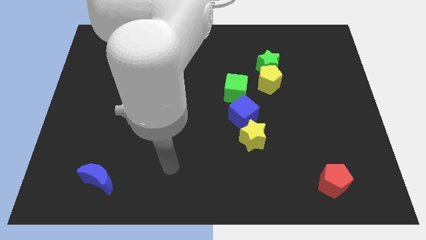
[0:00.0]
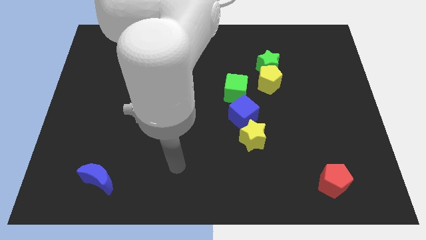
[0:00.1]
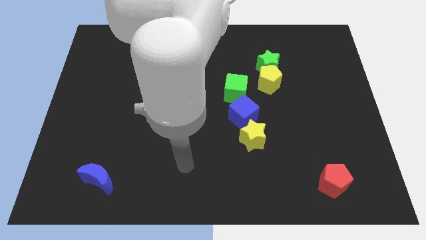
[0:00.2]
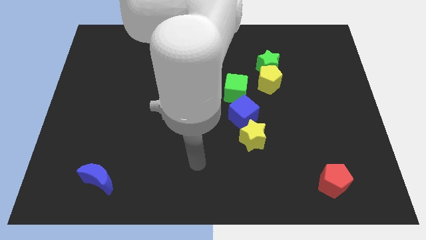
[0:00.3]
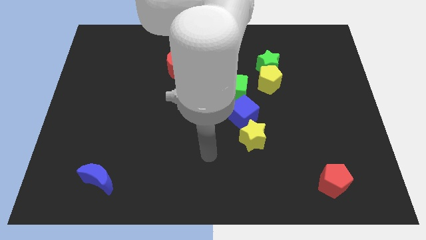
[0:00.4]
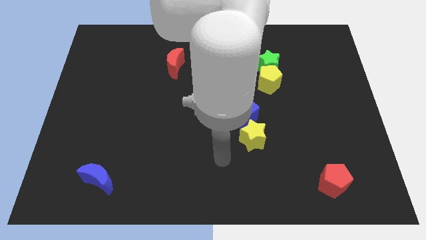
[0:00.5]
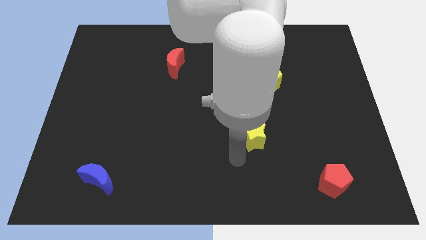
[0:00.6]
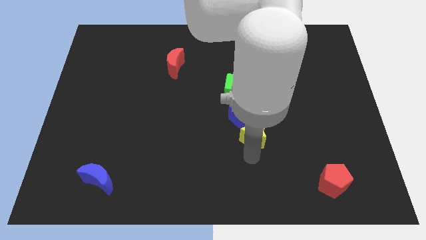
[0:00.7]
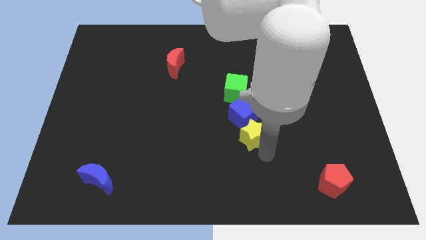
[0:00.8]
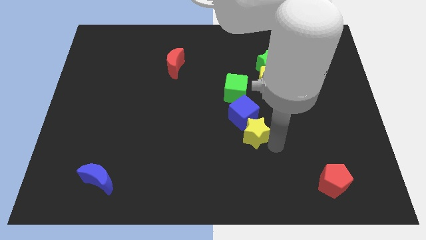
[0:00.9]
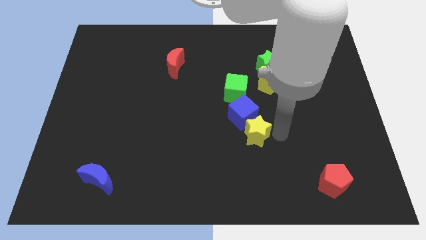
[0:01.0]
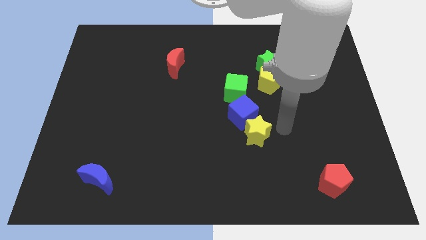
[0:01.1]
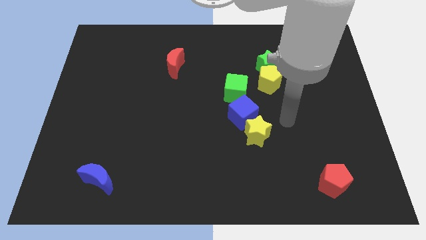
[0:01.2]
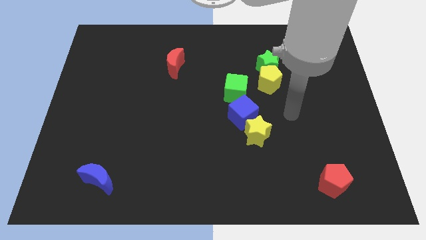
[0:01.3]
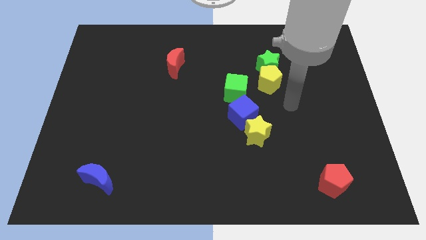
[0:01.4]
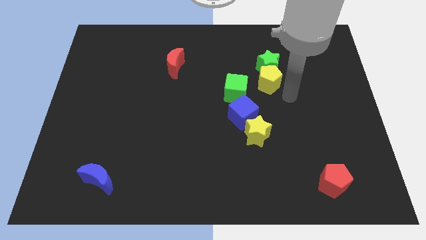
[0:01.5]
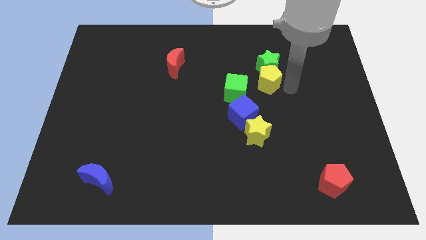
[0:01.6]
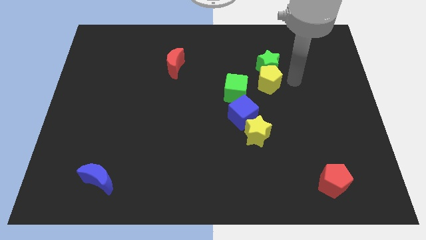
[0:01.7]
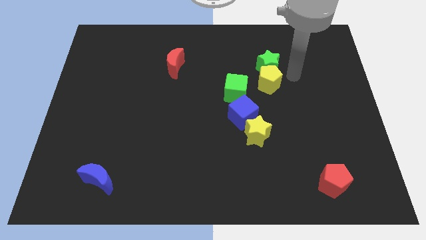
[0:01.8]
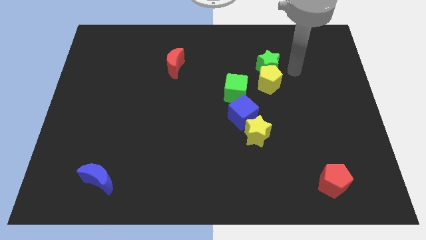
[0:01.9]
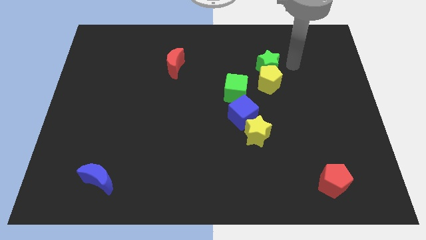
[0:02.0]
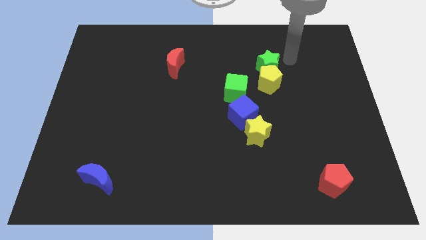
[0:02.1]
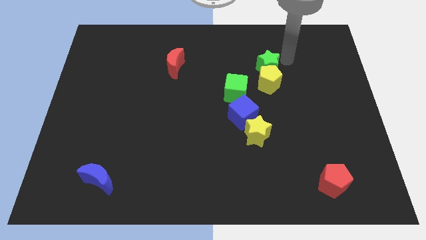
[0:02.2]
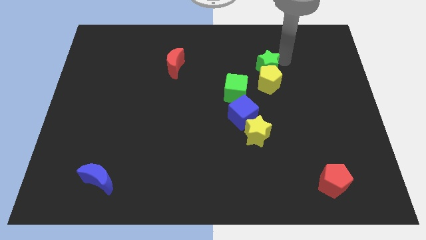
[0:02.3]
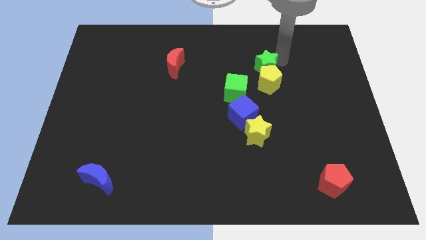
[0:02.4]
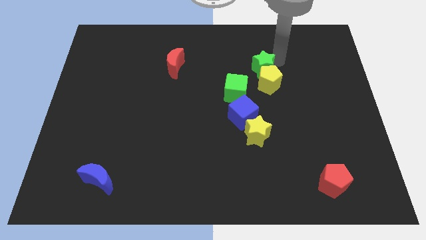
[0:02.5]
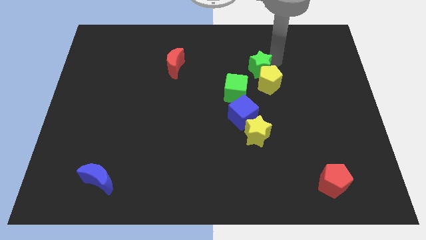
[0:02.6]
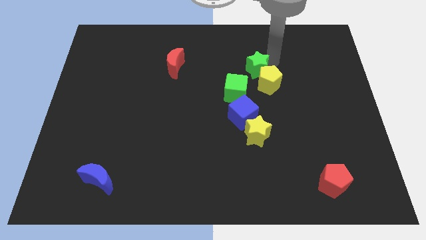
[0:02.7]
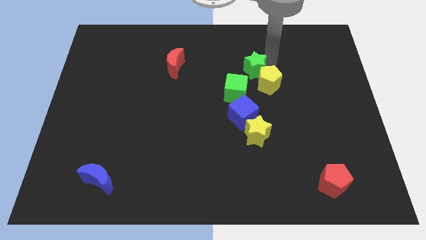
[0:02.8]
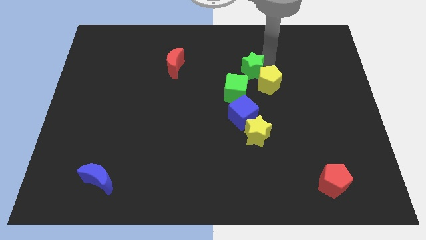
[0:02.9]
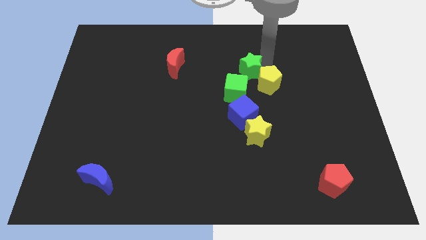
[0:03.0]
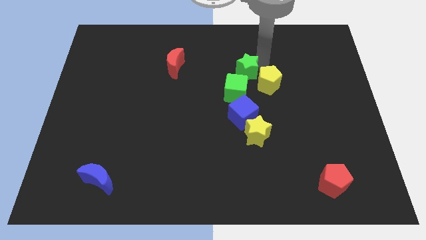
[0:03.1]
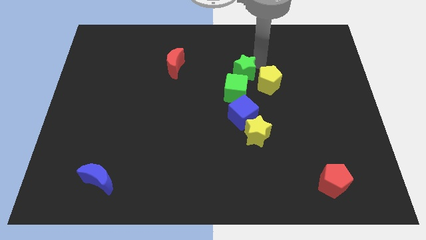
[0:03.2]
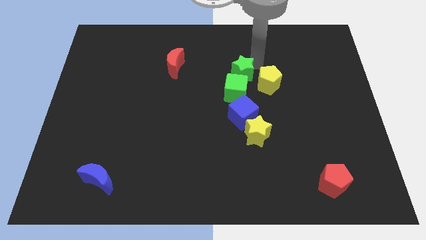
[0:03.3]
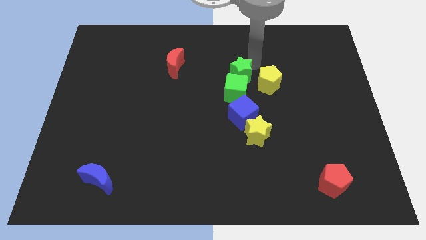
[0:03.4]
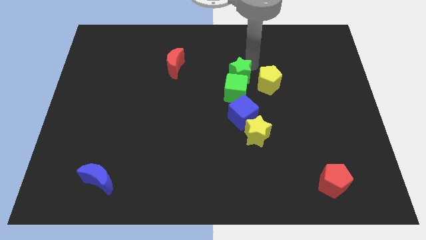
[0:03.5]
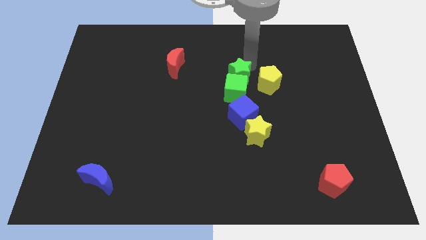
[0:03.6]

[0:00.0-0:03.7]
slide the green star diagonally downwards and left a little bit

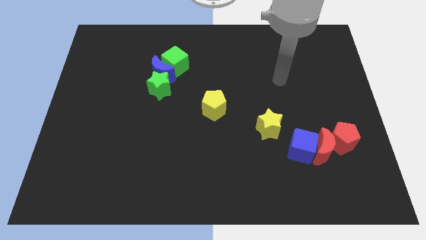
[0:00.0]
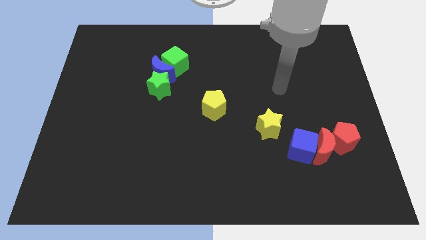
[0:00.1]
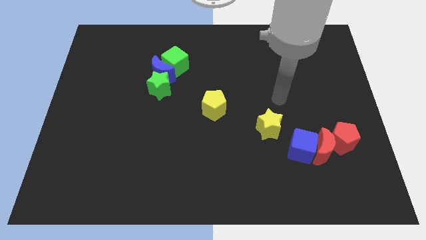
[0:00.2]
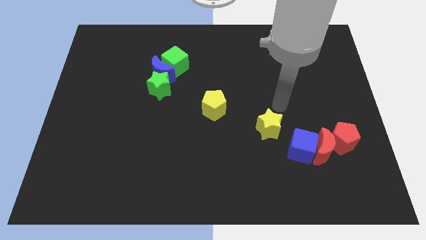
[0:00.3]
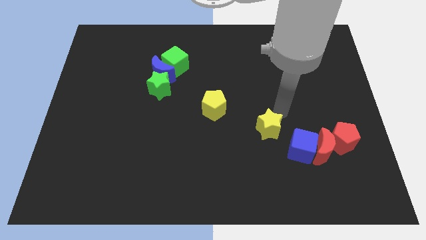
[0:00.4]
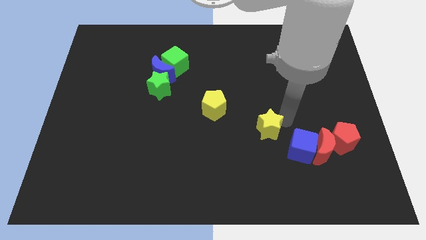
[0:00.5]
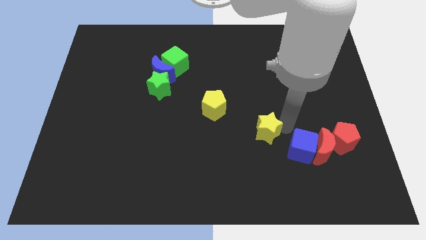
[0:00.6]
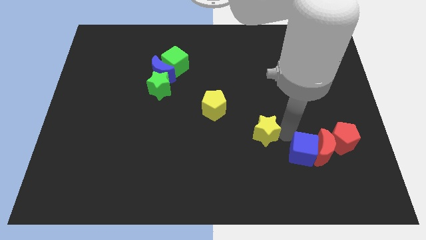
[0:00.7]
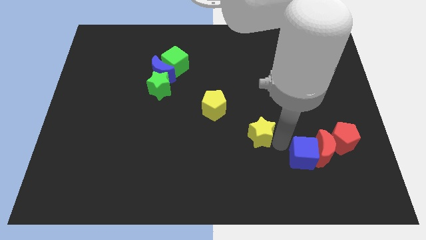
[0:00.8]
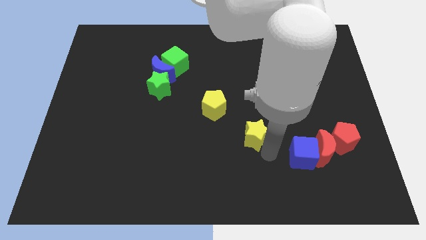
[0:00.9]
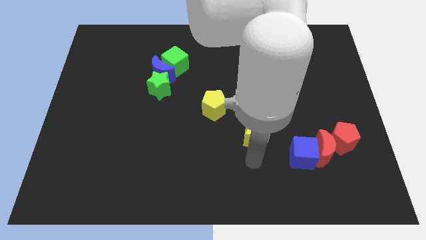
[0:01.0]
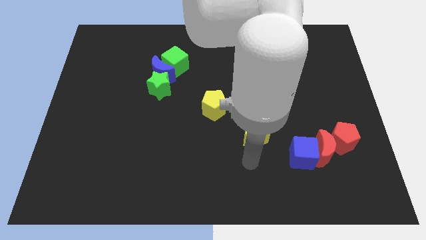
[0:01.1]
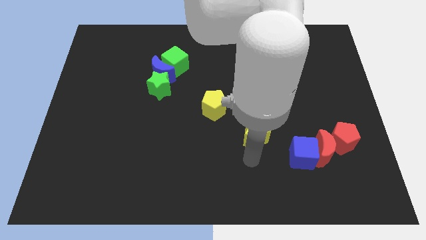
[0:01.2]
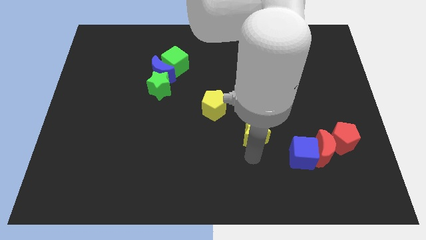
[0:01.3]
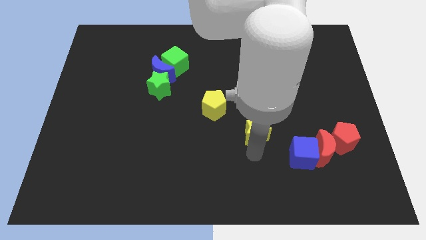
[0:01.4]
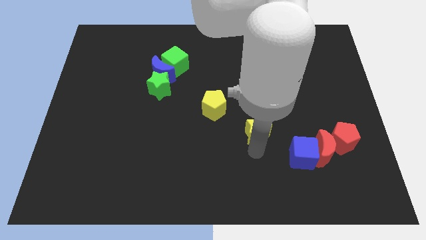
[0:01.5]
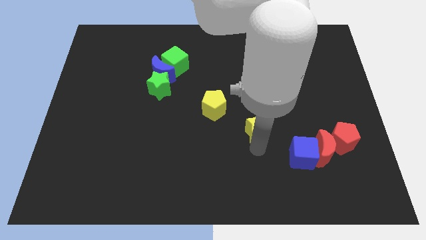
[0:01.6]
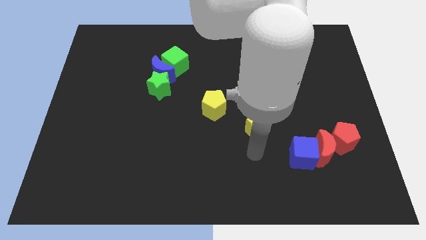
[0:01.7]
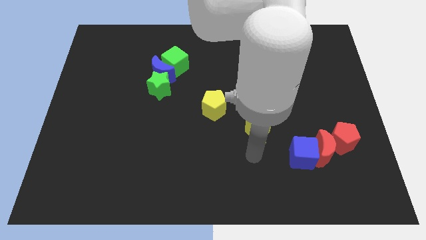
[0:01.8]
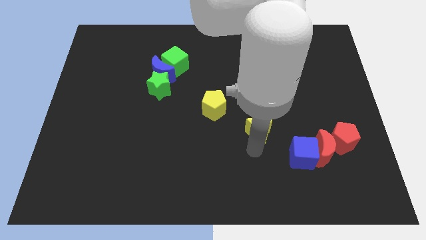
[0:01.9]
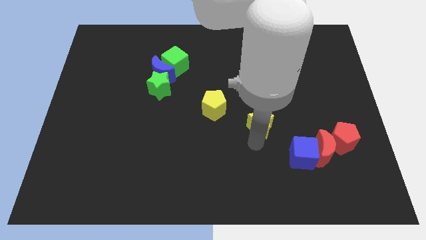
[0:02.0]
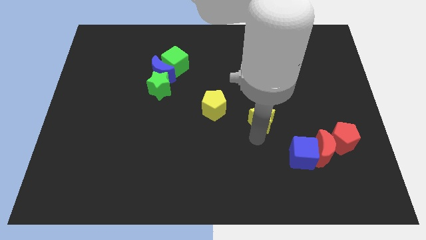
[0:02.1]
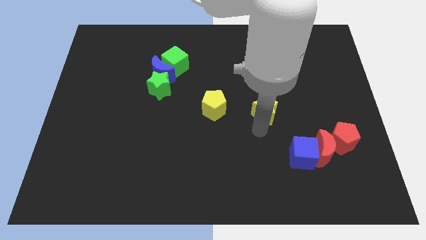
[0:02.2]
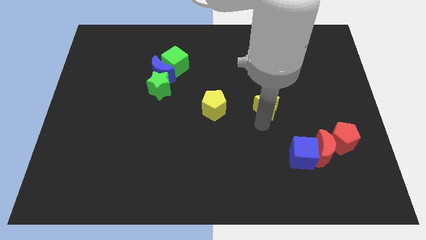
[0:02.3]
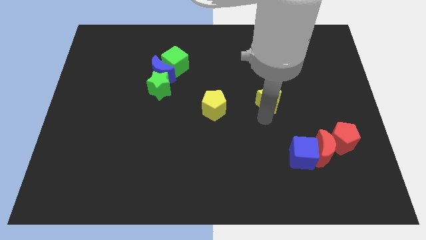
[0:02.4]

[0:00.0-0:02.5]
push the yellow star up slightly

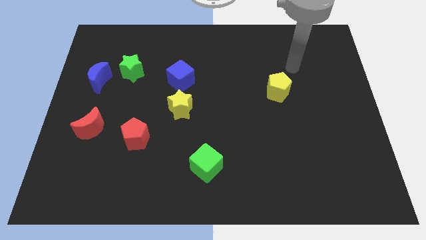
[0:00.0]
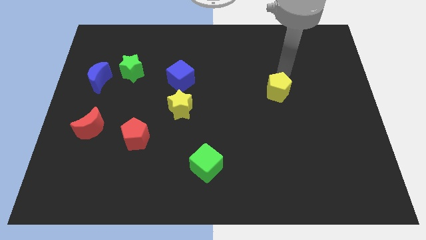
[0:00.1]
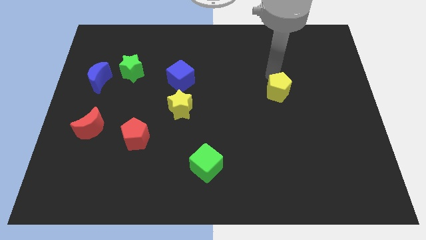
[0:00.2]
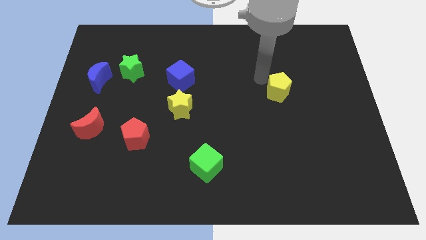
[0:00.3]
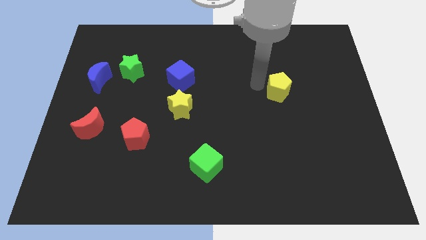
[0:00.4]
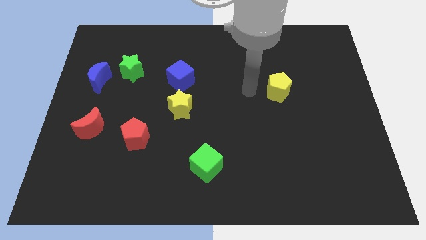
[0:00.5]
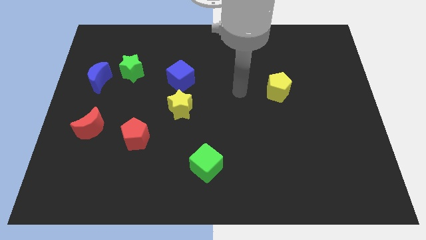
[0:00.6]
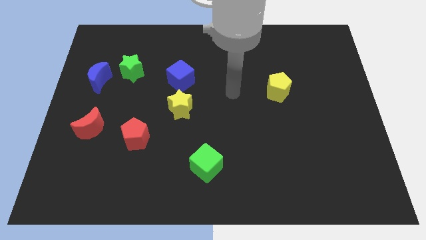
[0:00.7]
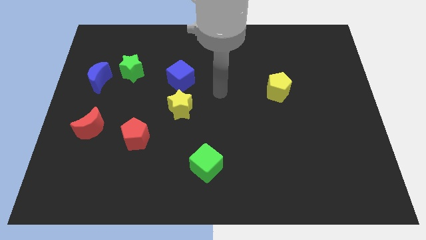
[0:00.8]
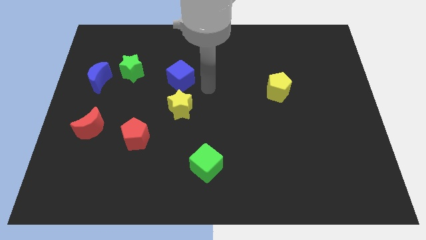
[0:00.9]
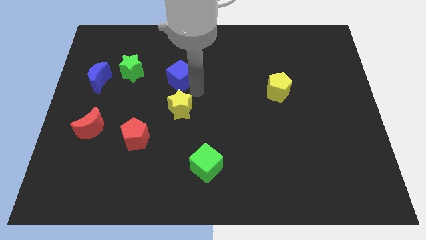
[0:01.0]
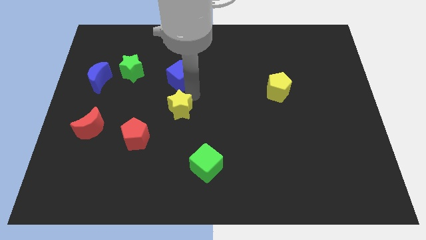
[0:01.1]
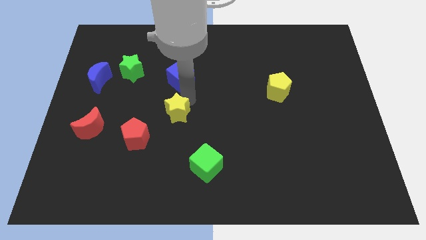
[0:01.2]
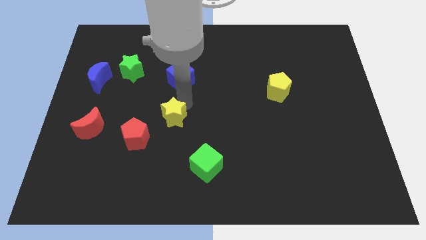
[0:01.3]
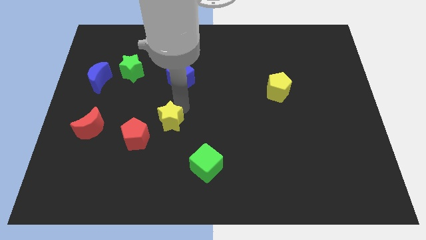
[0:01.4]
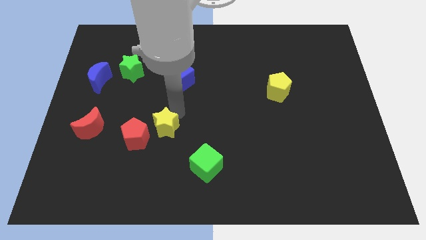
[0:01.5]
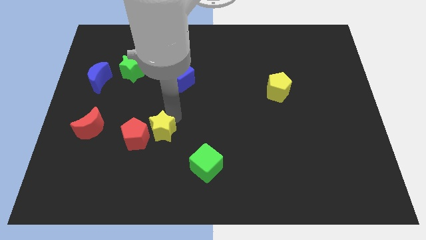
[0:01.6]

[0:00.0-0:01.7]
slide the yellow star downwards and then left a little

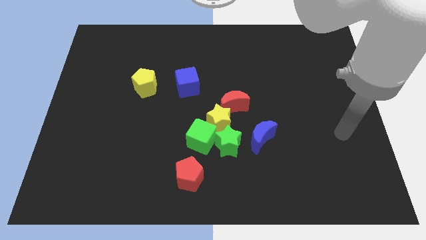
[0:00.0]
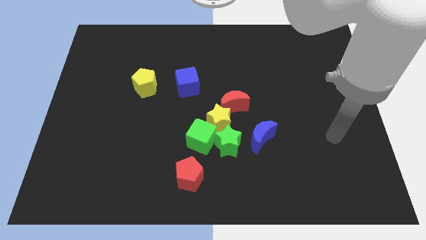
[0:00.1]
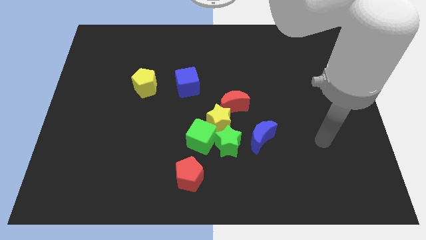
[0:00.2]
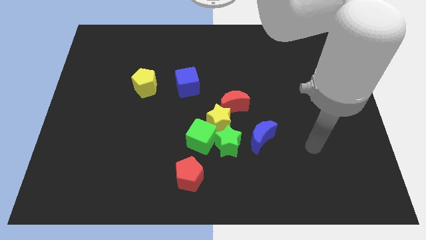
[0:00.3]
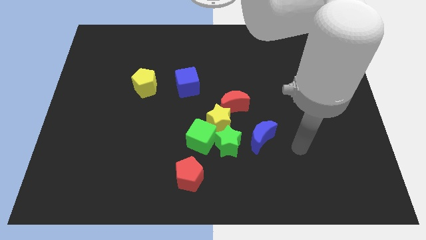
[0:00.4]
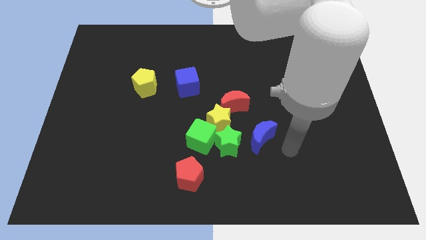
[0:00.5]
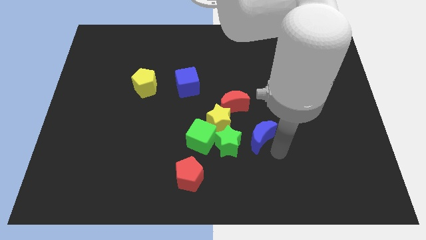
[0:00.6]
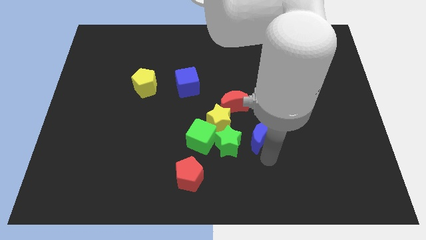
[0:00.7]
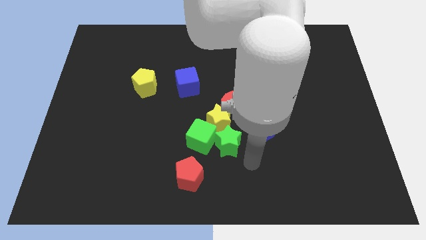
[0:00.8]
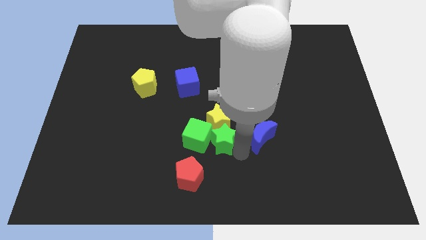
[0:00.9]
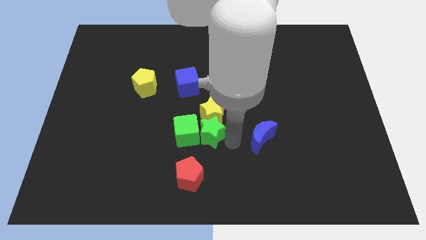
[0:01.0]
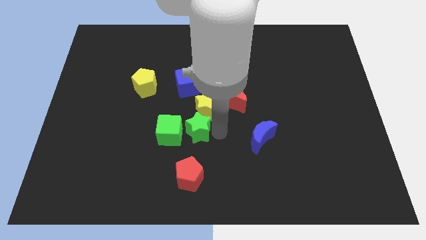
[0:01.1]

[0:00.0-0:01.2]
slightly slide the green cube left
